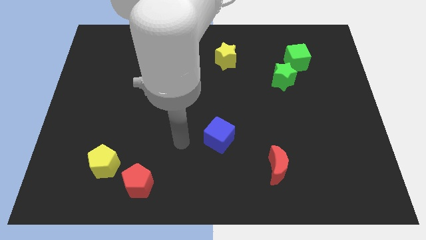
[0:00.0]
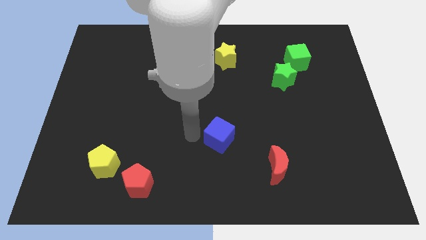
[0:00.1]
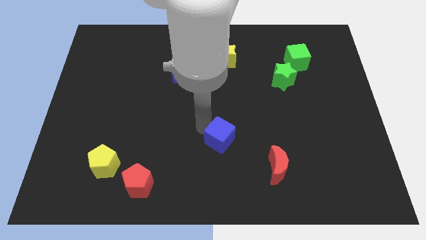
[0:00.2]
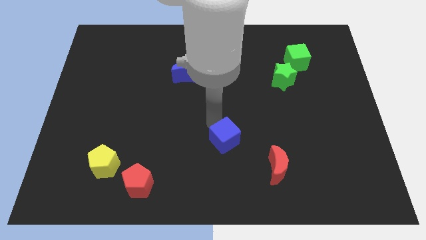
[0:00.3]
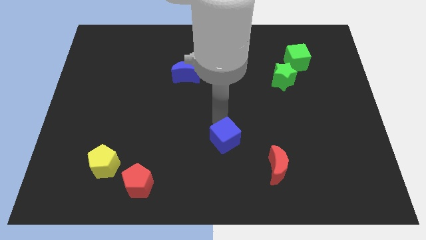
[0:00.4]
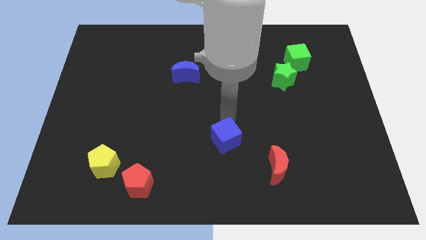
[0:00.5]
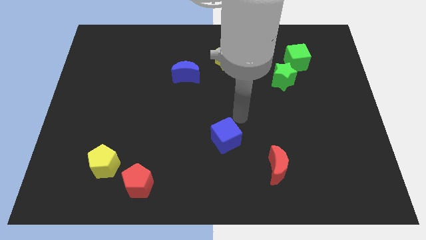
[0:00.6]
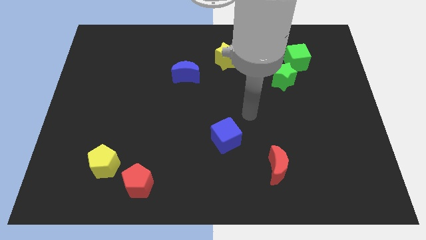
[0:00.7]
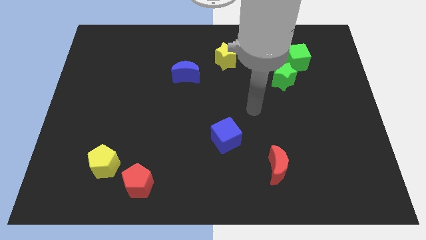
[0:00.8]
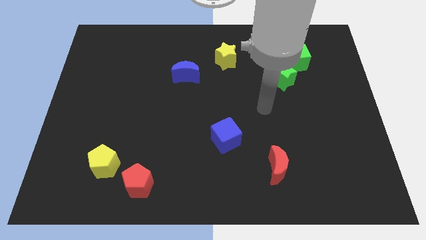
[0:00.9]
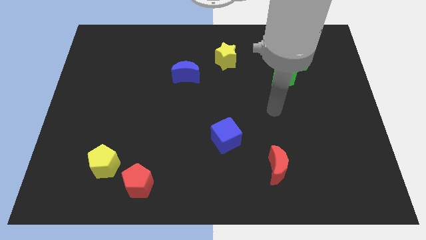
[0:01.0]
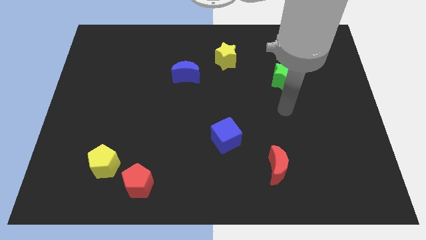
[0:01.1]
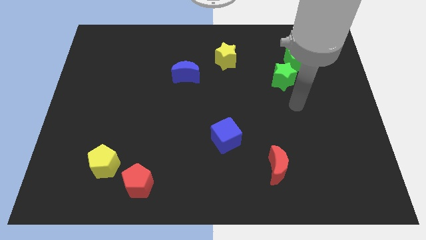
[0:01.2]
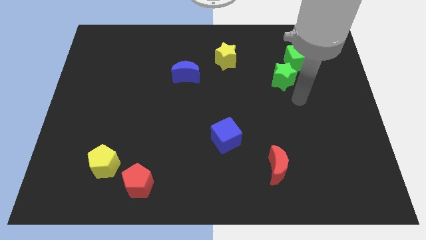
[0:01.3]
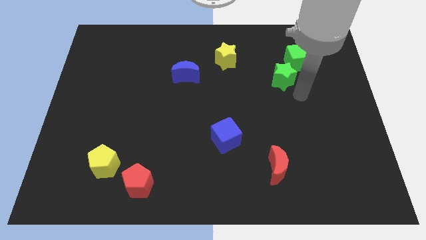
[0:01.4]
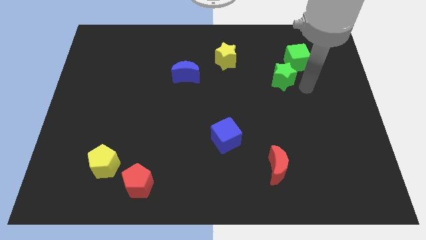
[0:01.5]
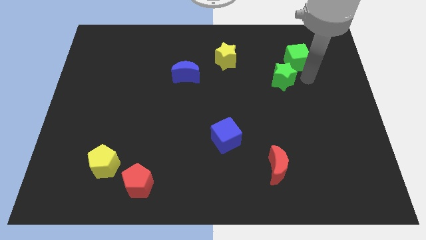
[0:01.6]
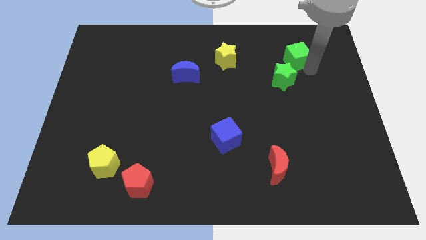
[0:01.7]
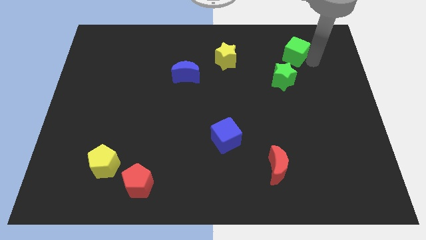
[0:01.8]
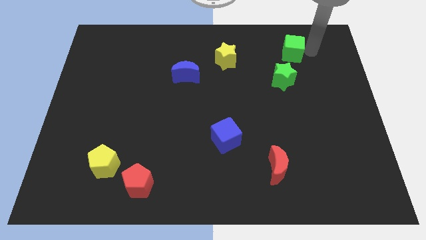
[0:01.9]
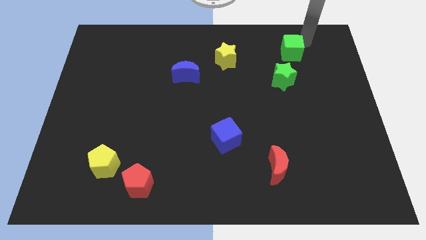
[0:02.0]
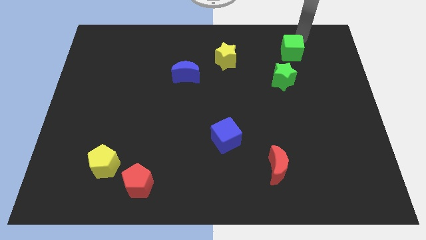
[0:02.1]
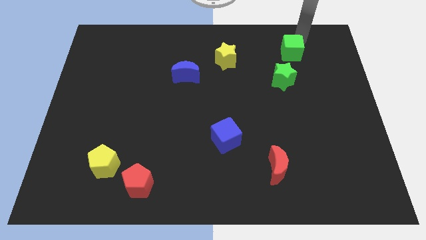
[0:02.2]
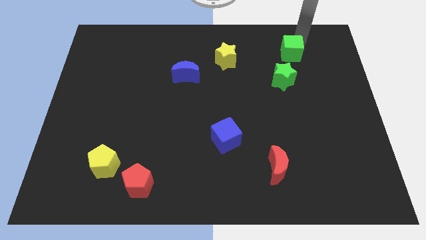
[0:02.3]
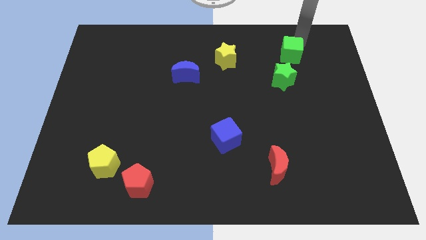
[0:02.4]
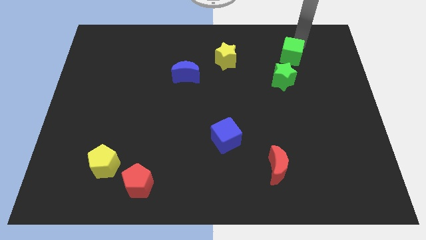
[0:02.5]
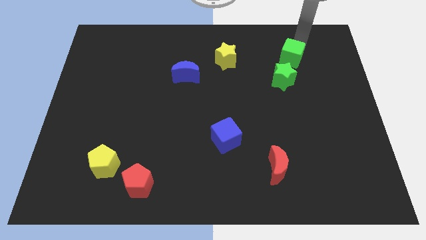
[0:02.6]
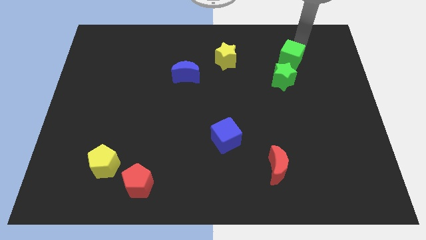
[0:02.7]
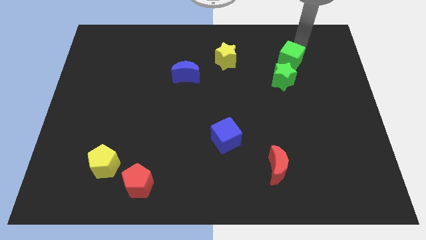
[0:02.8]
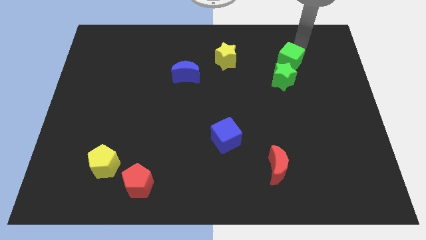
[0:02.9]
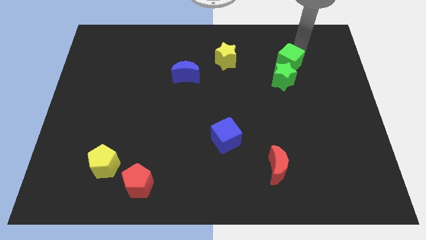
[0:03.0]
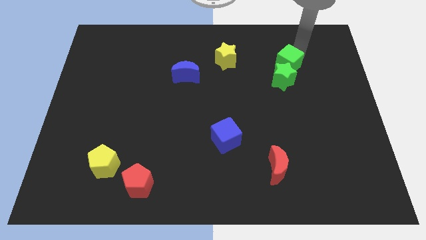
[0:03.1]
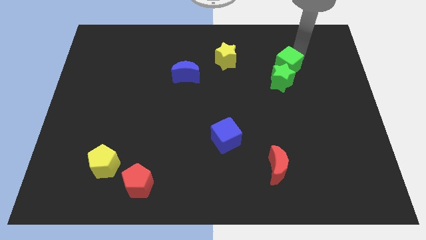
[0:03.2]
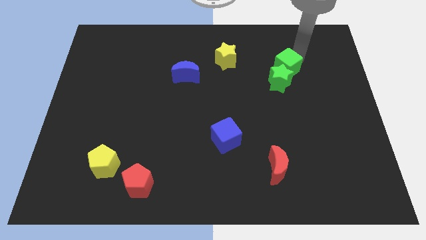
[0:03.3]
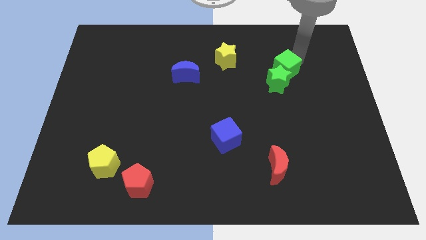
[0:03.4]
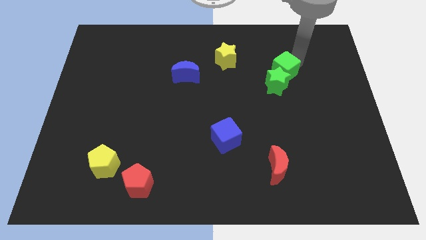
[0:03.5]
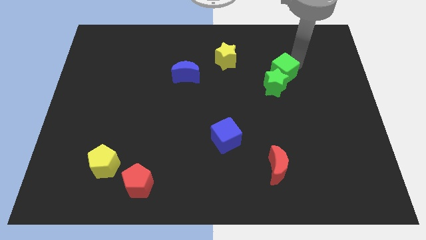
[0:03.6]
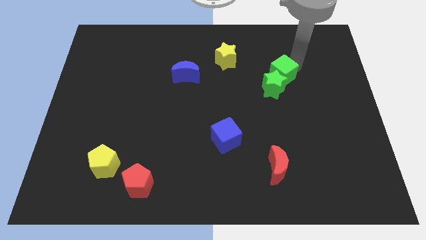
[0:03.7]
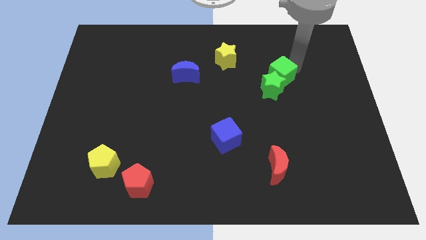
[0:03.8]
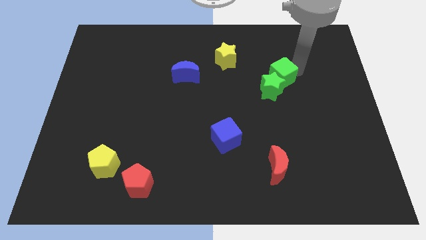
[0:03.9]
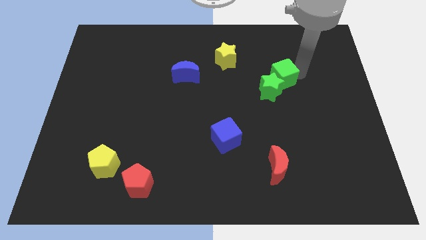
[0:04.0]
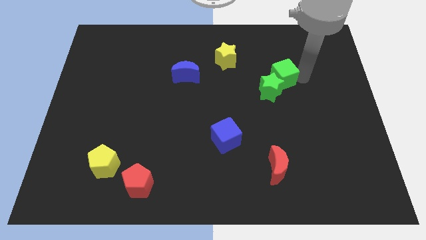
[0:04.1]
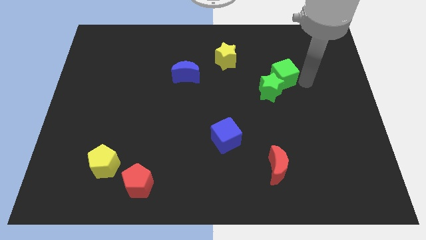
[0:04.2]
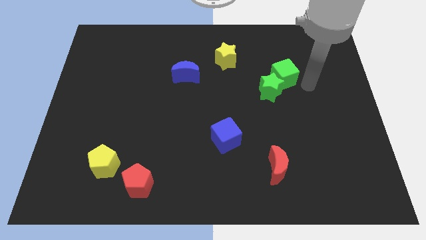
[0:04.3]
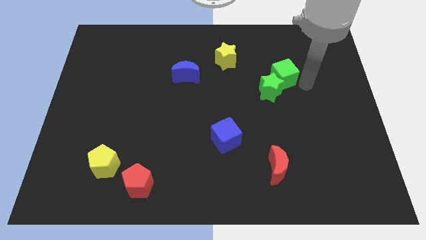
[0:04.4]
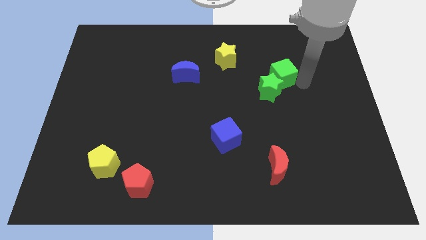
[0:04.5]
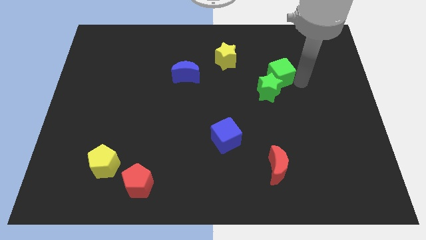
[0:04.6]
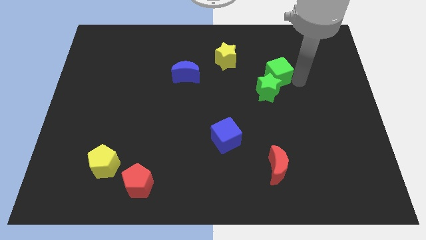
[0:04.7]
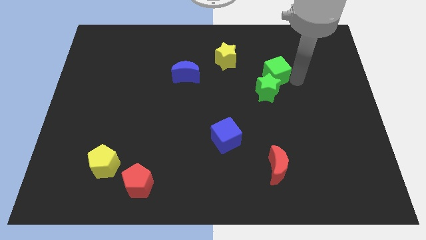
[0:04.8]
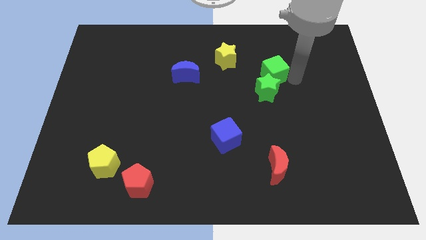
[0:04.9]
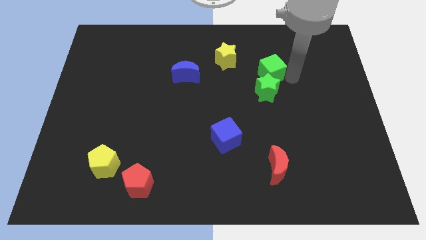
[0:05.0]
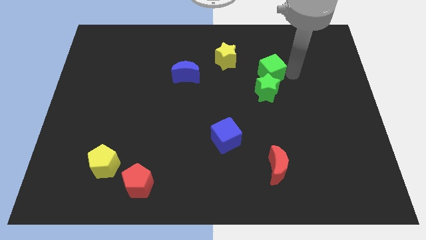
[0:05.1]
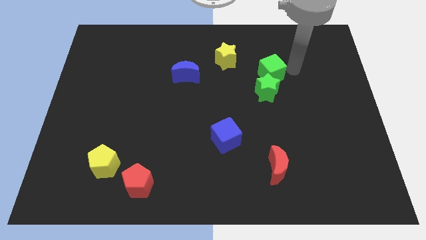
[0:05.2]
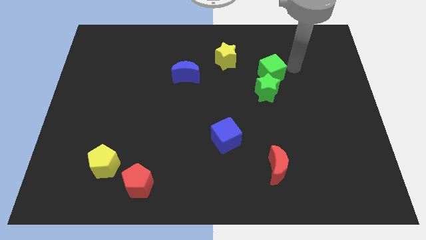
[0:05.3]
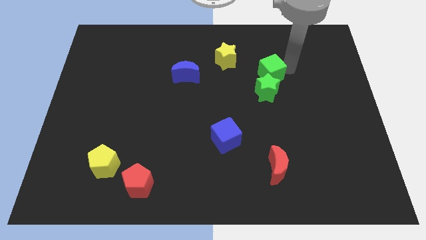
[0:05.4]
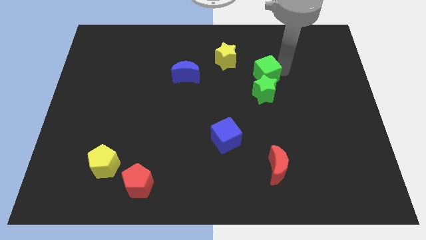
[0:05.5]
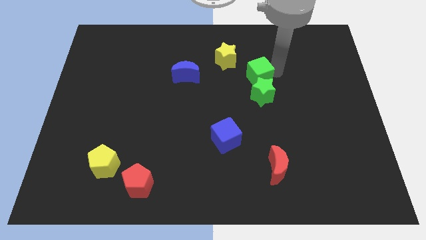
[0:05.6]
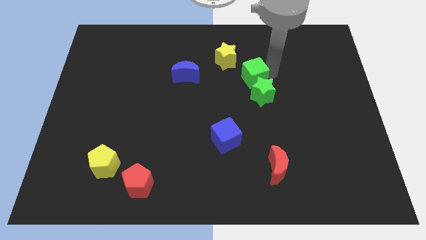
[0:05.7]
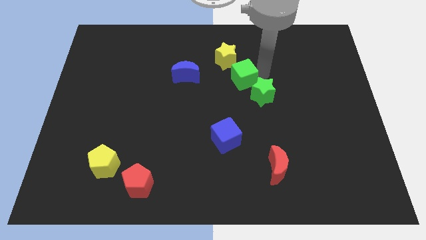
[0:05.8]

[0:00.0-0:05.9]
put the green cube to the center

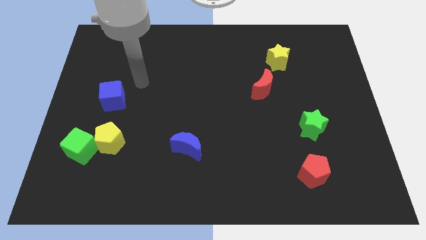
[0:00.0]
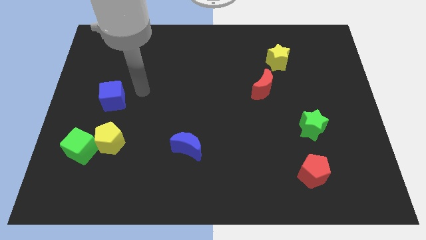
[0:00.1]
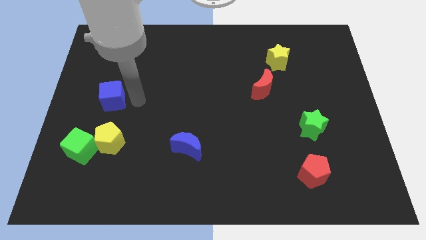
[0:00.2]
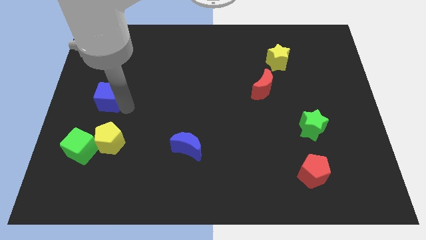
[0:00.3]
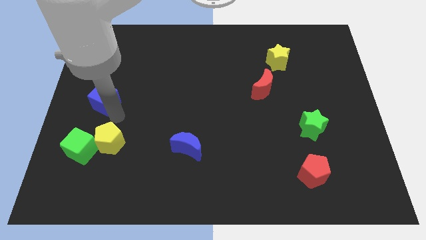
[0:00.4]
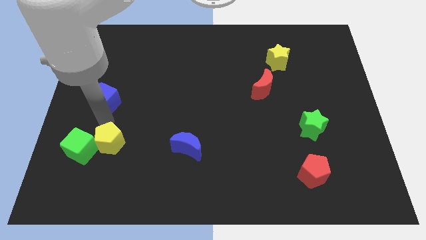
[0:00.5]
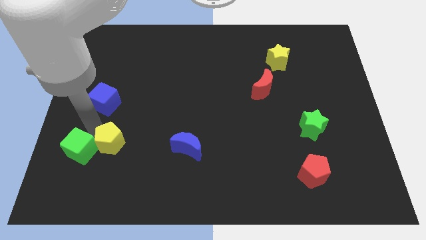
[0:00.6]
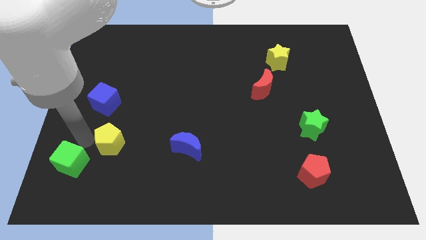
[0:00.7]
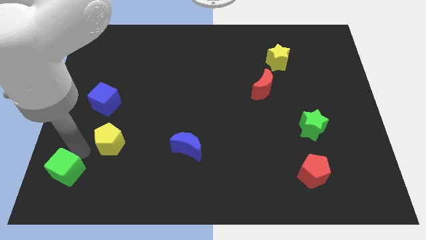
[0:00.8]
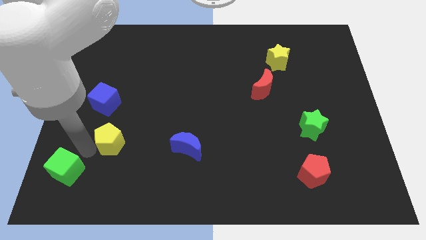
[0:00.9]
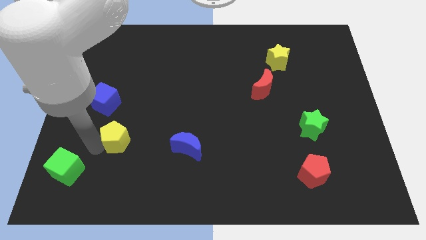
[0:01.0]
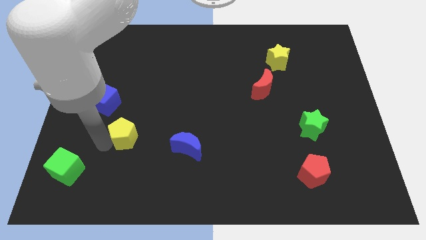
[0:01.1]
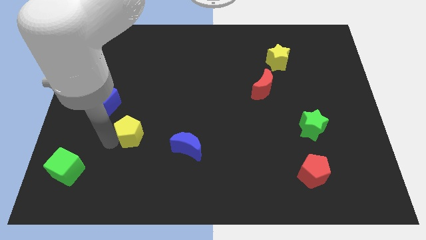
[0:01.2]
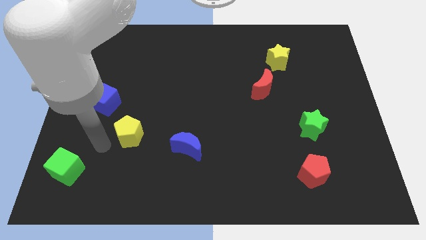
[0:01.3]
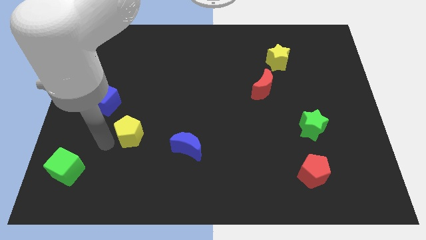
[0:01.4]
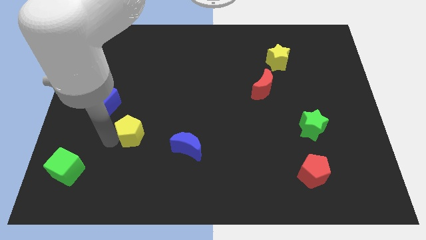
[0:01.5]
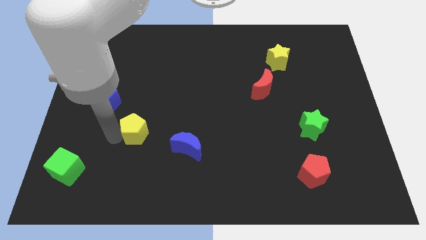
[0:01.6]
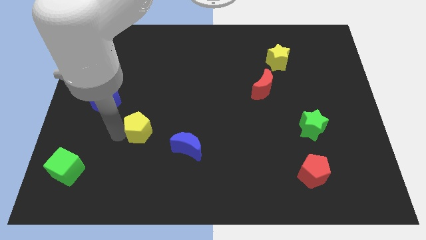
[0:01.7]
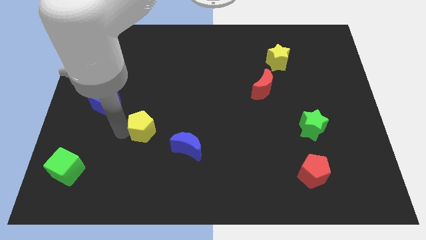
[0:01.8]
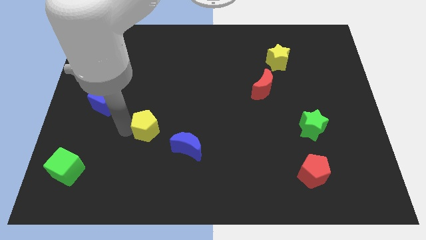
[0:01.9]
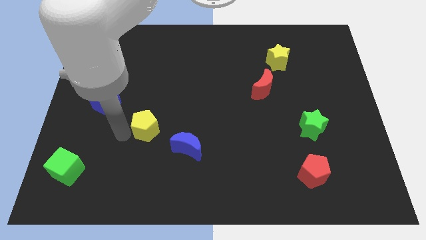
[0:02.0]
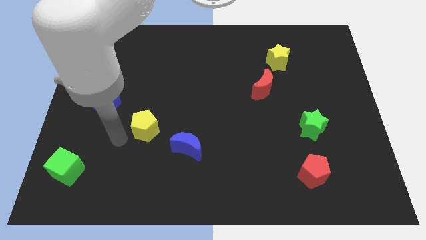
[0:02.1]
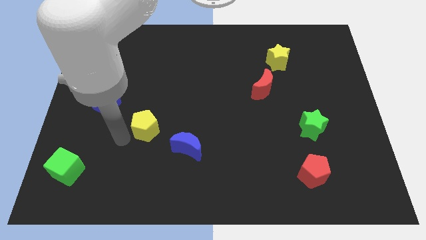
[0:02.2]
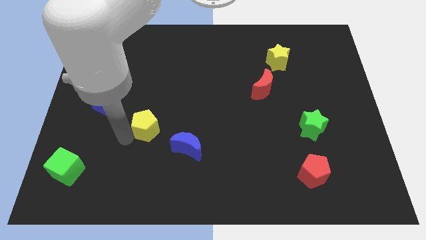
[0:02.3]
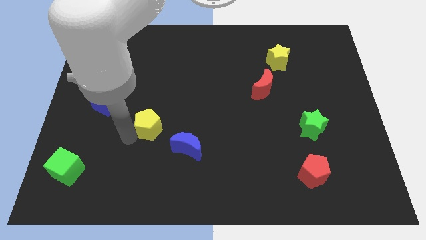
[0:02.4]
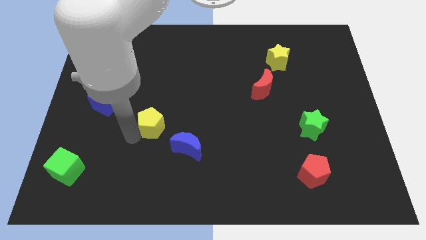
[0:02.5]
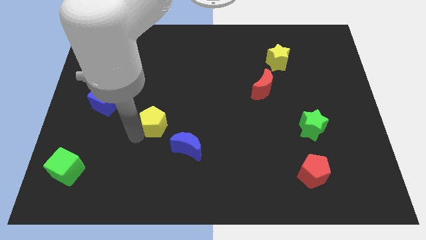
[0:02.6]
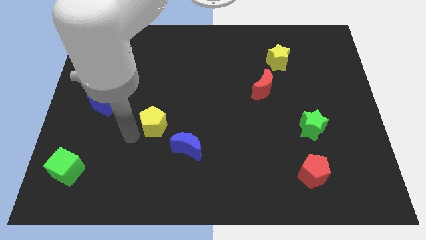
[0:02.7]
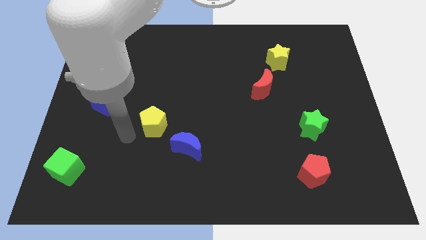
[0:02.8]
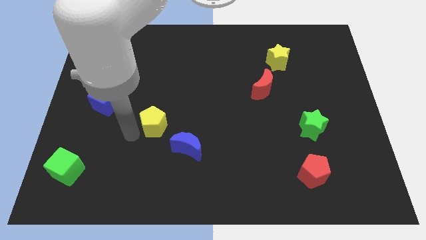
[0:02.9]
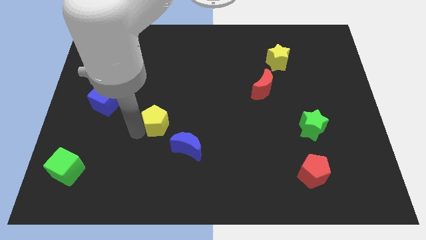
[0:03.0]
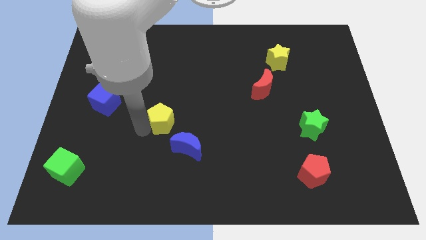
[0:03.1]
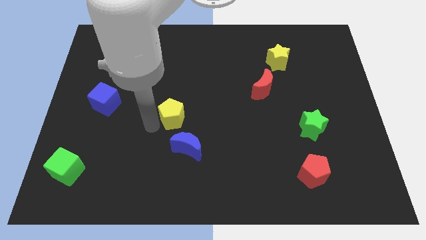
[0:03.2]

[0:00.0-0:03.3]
push the yellow pentagon to the center
